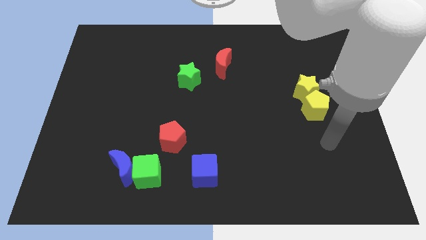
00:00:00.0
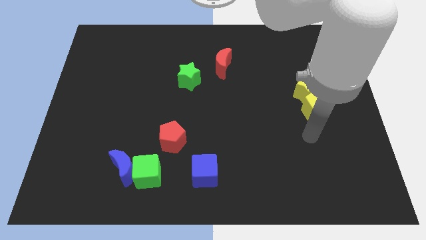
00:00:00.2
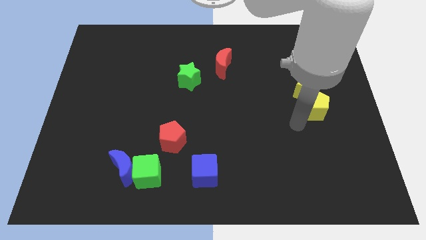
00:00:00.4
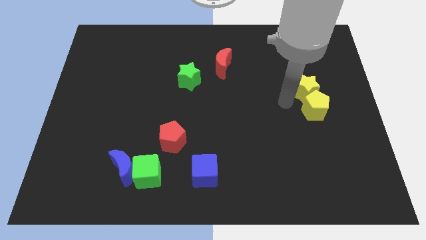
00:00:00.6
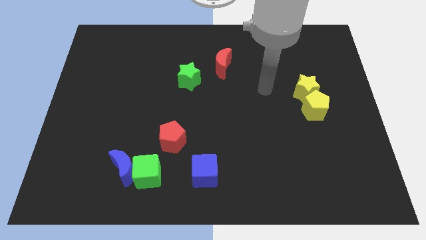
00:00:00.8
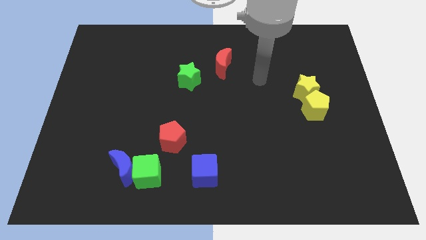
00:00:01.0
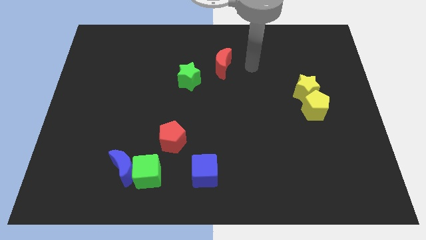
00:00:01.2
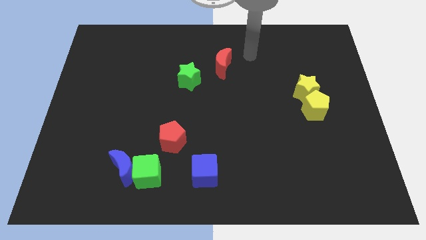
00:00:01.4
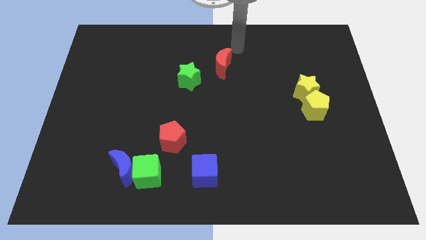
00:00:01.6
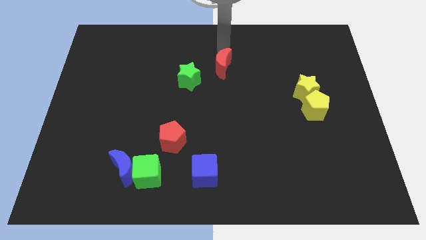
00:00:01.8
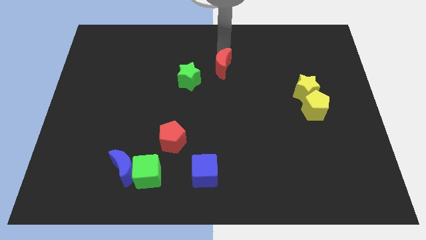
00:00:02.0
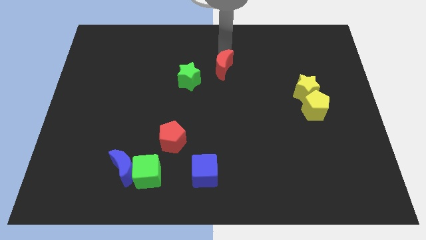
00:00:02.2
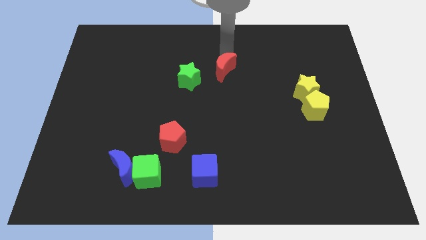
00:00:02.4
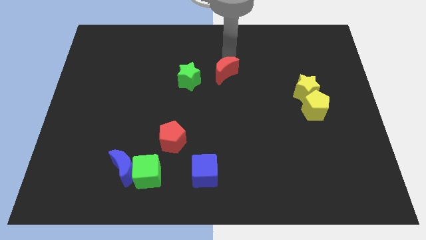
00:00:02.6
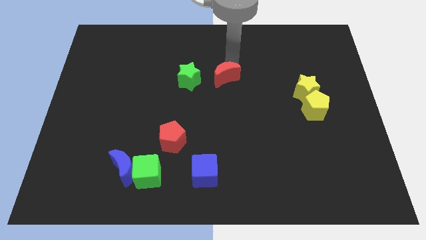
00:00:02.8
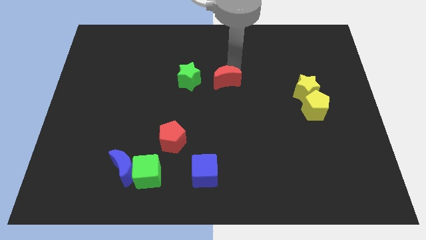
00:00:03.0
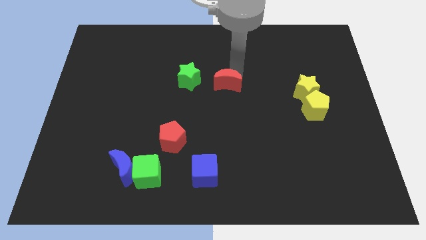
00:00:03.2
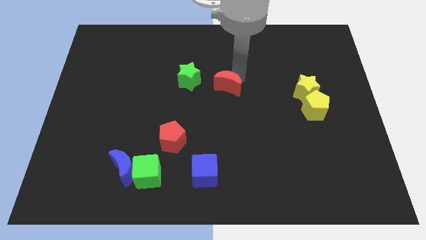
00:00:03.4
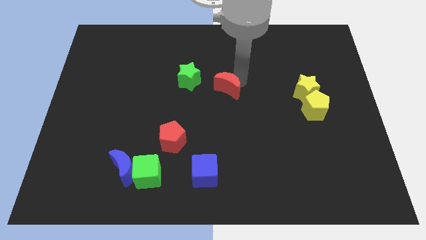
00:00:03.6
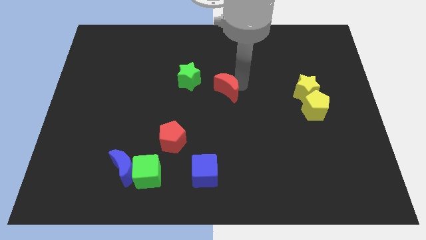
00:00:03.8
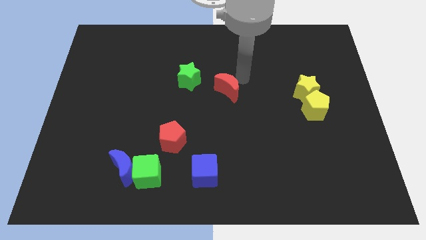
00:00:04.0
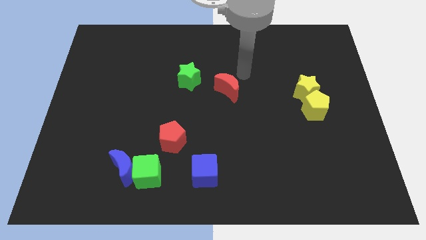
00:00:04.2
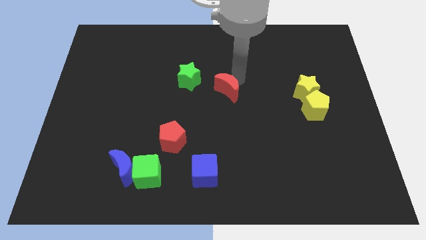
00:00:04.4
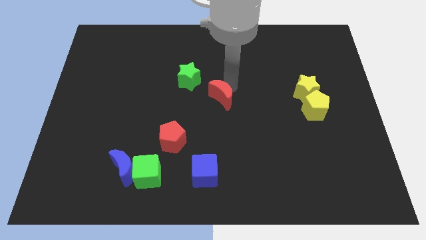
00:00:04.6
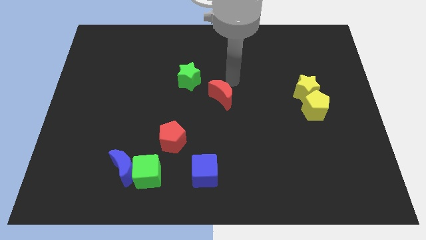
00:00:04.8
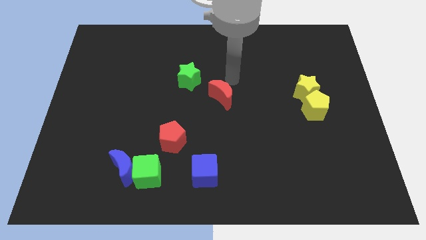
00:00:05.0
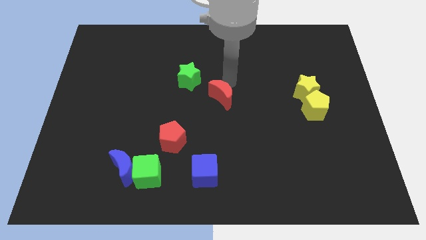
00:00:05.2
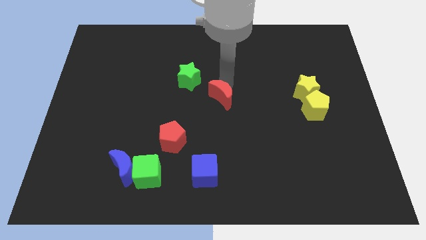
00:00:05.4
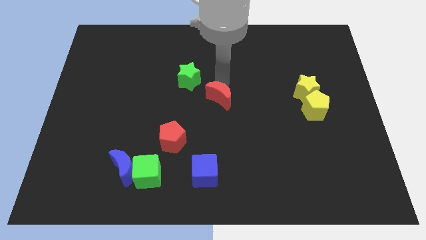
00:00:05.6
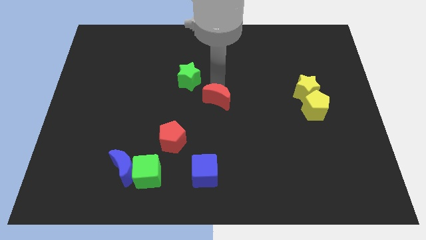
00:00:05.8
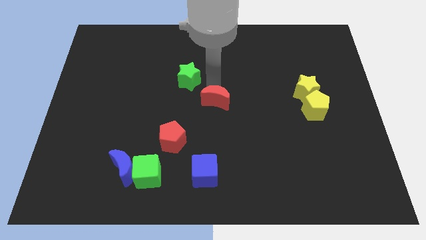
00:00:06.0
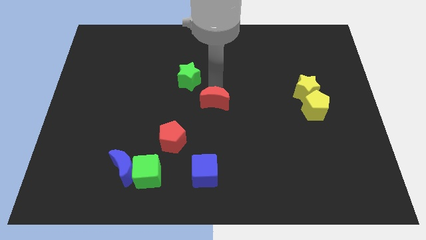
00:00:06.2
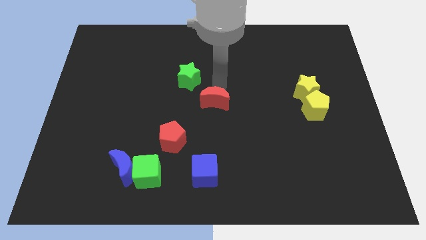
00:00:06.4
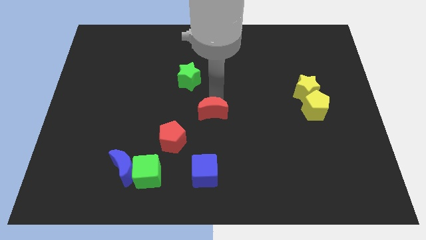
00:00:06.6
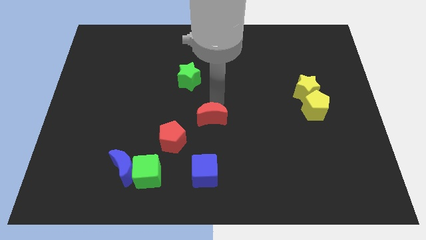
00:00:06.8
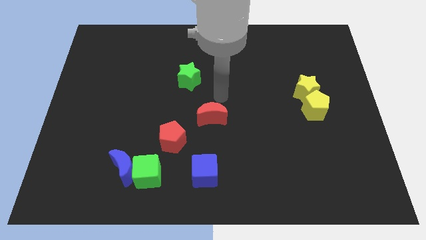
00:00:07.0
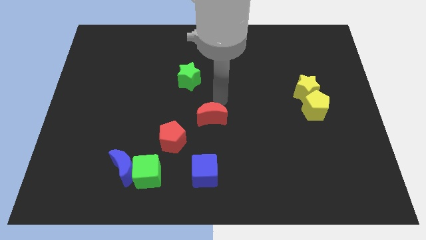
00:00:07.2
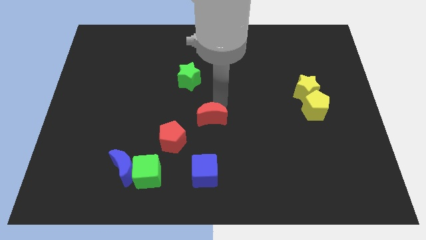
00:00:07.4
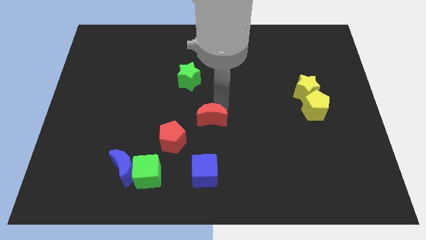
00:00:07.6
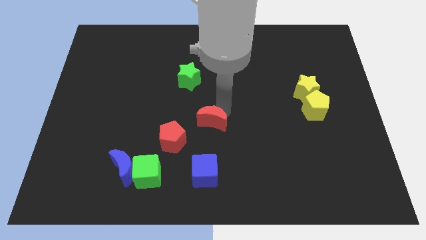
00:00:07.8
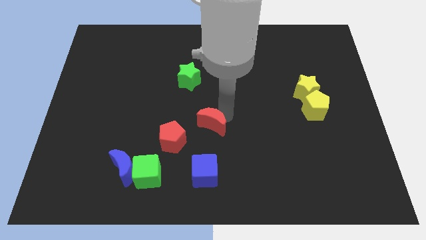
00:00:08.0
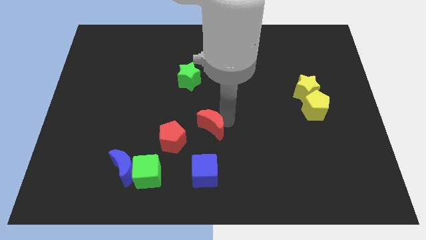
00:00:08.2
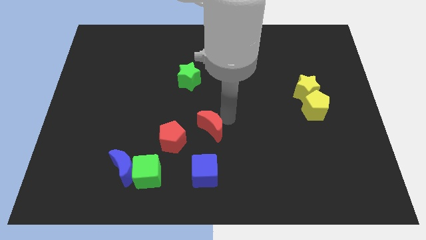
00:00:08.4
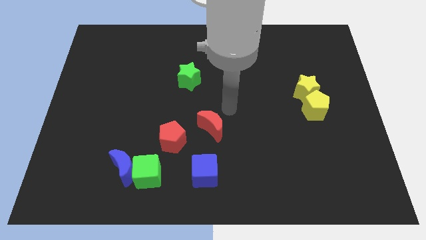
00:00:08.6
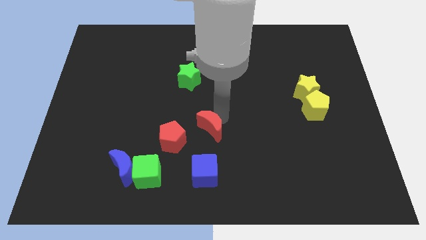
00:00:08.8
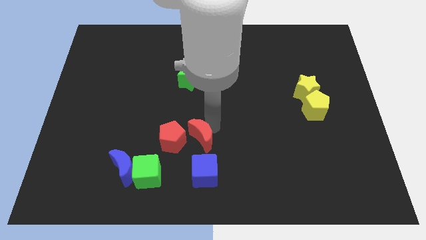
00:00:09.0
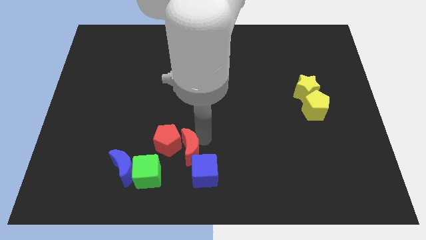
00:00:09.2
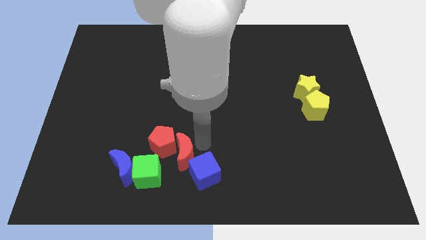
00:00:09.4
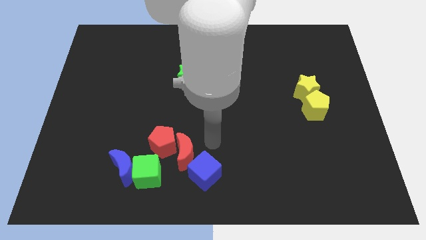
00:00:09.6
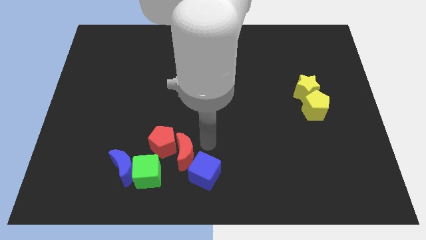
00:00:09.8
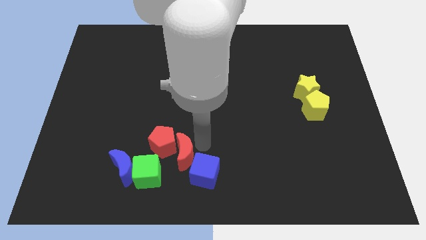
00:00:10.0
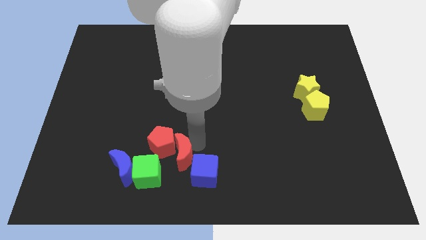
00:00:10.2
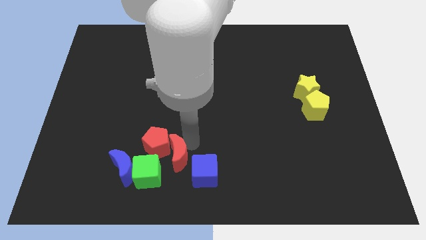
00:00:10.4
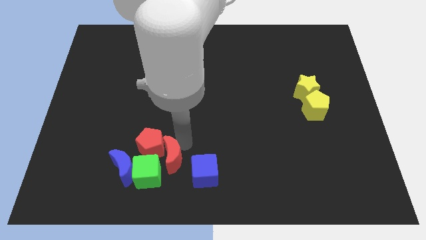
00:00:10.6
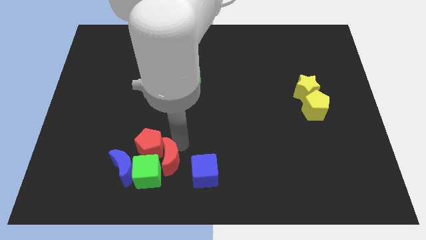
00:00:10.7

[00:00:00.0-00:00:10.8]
move the red moon next to the green cube

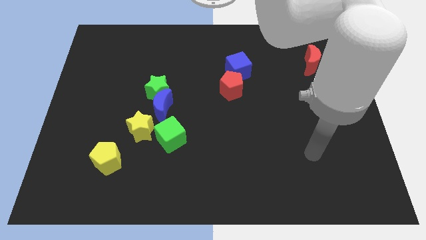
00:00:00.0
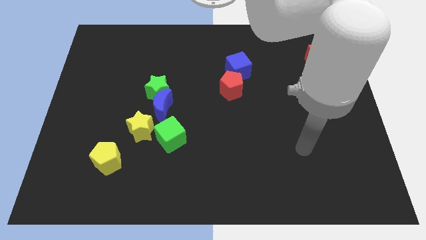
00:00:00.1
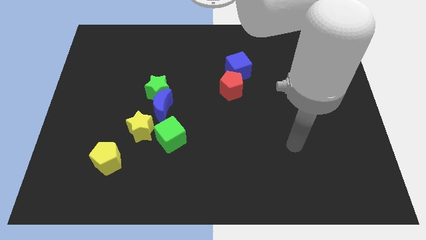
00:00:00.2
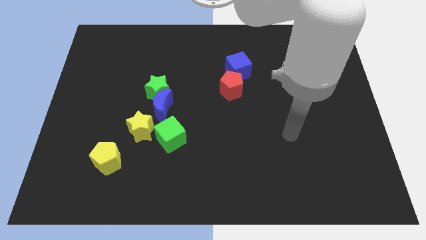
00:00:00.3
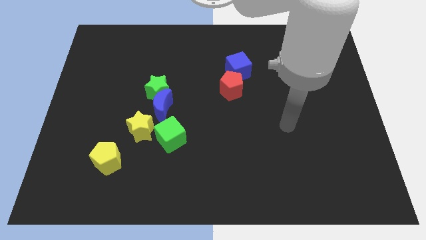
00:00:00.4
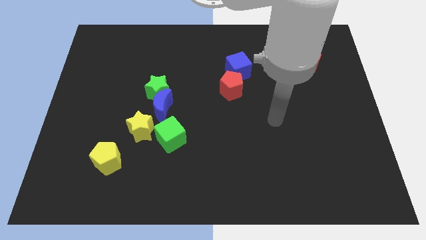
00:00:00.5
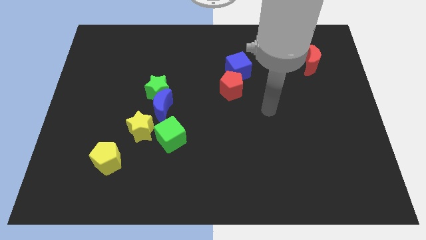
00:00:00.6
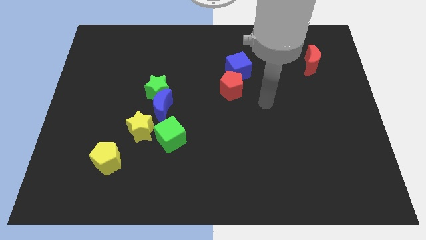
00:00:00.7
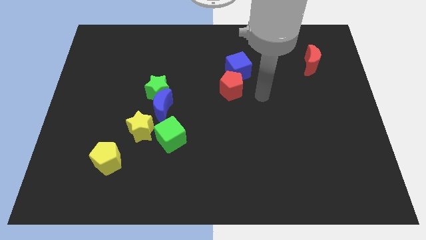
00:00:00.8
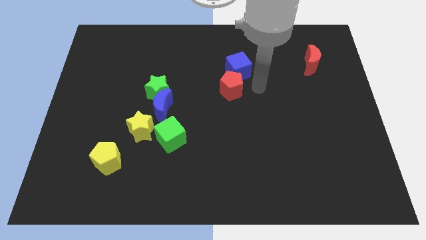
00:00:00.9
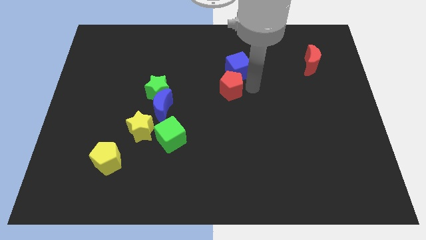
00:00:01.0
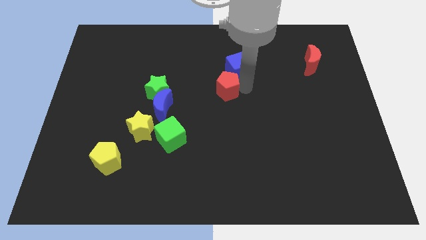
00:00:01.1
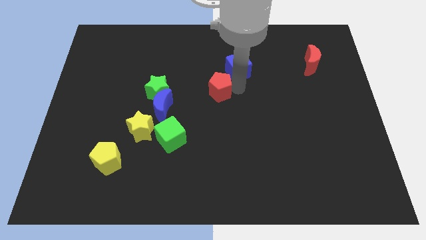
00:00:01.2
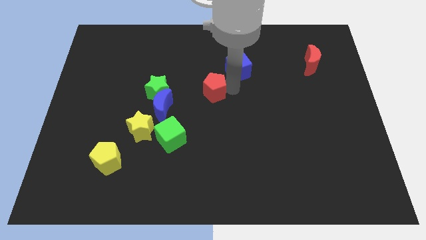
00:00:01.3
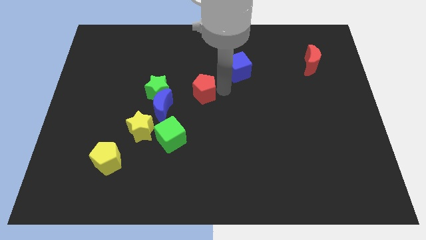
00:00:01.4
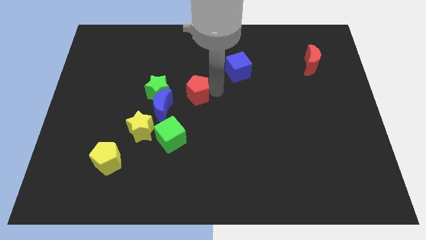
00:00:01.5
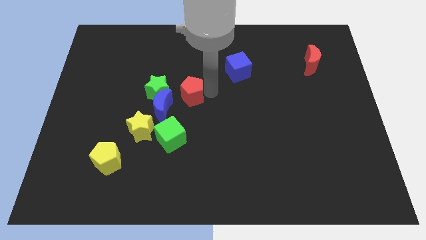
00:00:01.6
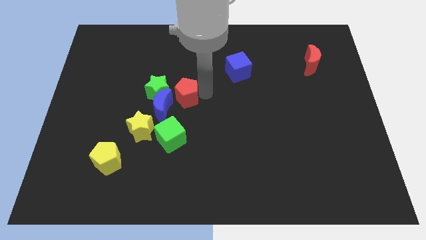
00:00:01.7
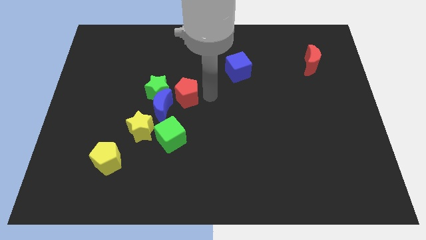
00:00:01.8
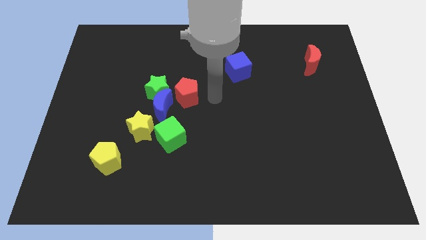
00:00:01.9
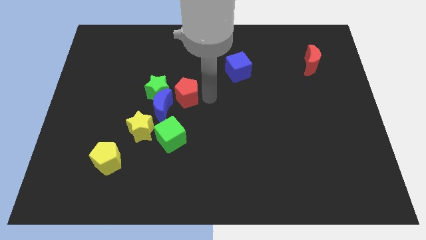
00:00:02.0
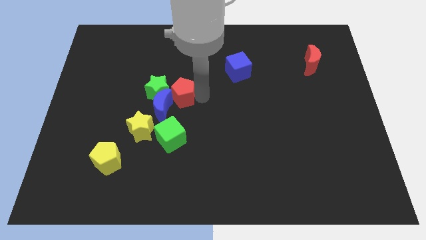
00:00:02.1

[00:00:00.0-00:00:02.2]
slide the red pentagon to the green star
